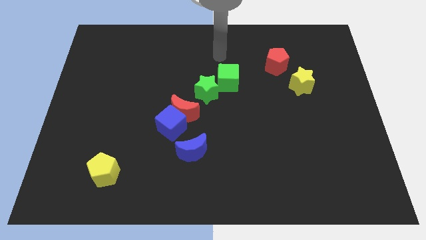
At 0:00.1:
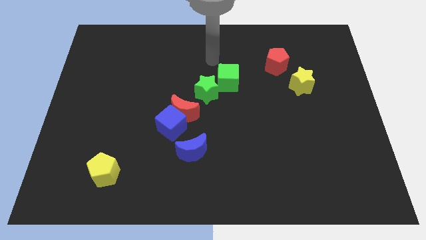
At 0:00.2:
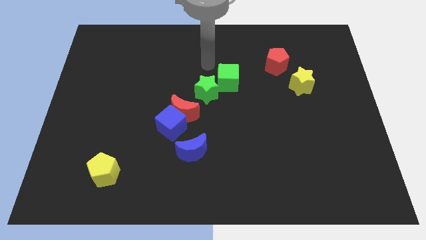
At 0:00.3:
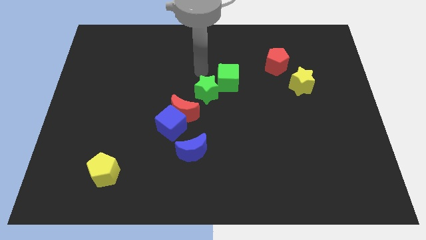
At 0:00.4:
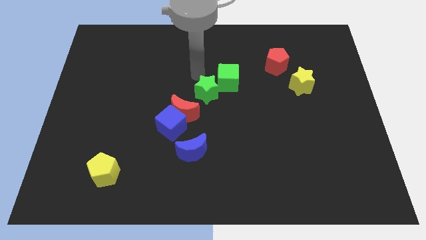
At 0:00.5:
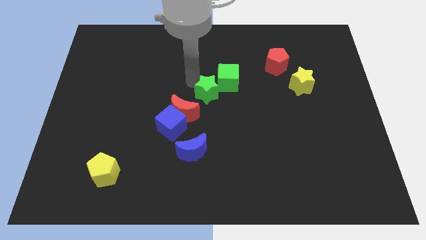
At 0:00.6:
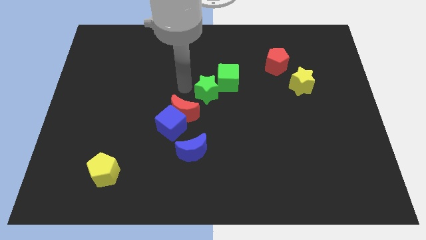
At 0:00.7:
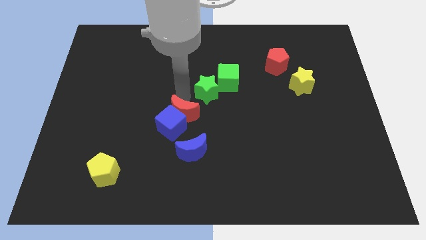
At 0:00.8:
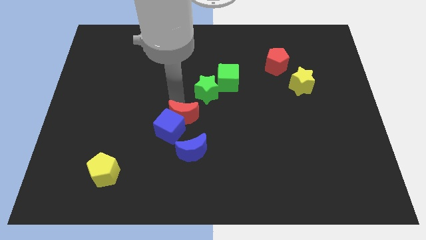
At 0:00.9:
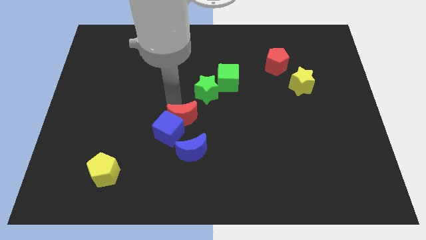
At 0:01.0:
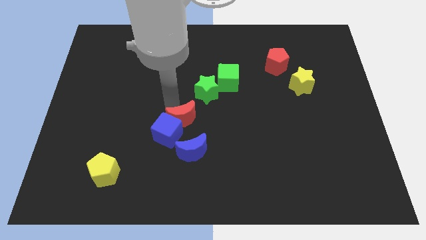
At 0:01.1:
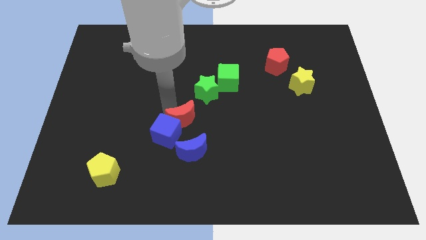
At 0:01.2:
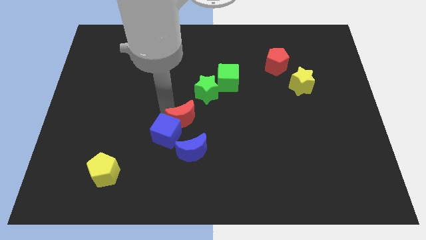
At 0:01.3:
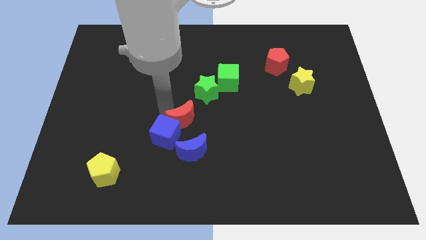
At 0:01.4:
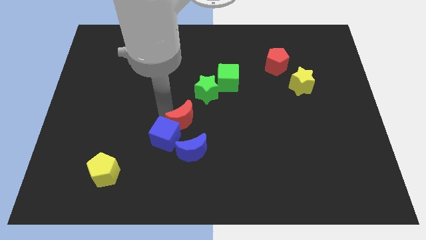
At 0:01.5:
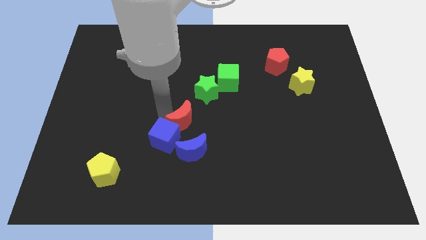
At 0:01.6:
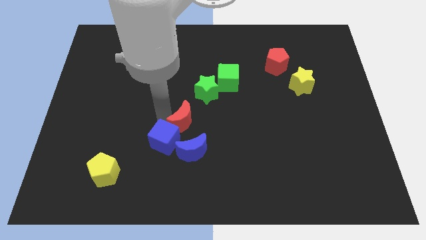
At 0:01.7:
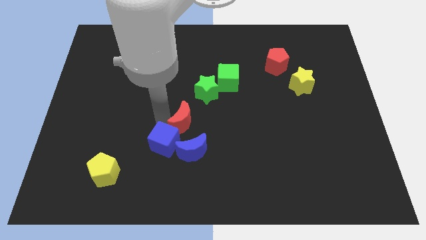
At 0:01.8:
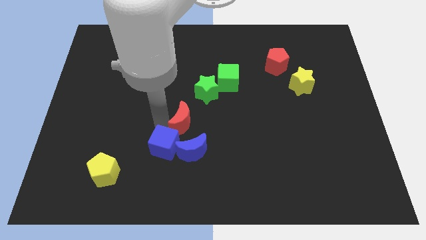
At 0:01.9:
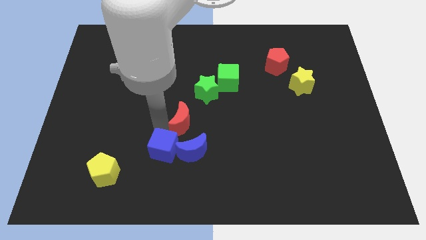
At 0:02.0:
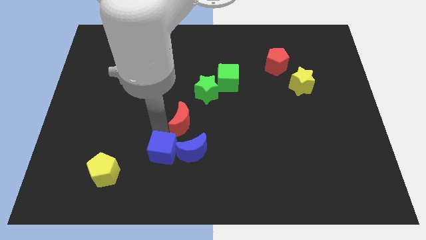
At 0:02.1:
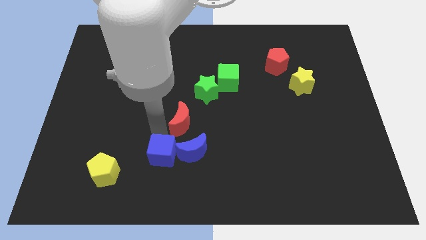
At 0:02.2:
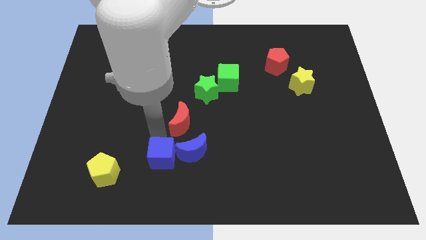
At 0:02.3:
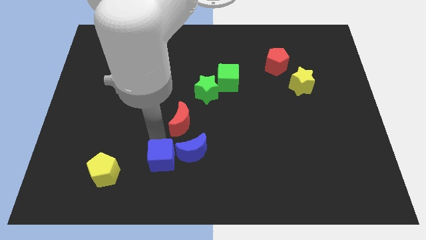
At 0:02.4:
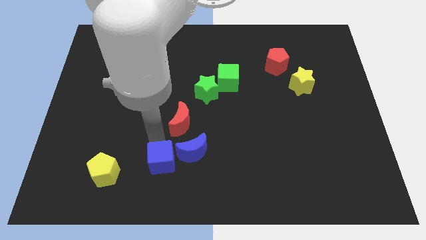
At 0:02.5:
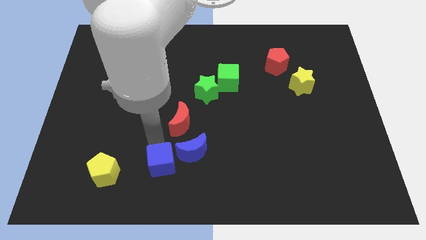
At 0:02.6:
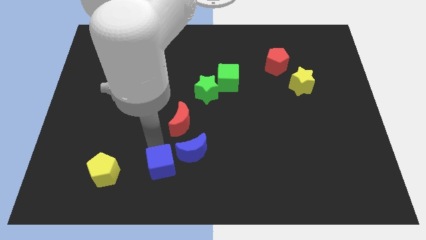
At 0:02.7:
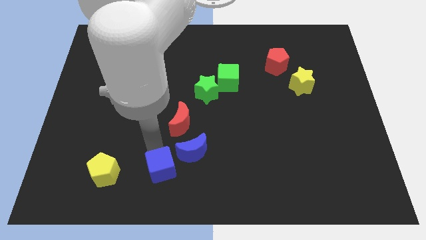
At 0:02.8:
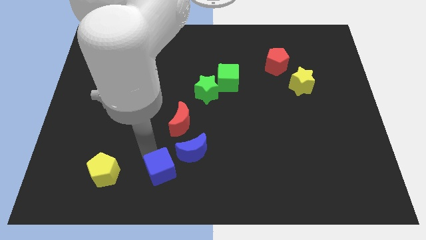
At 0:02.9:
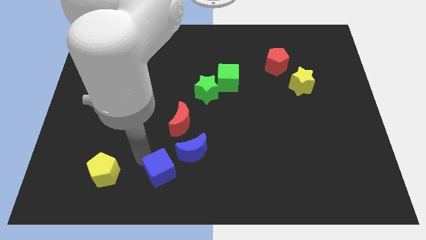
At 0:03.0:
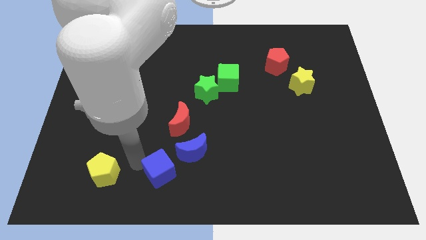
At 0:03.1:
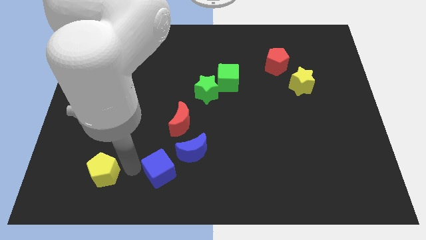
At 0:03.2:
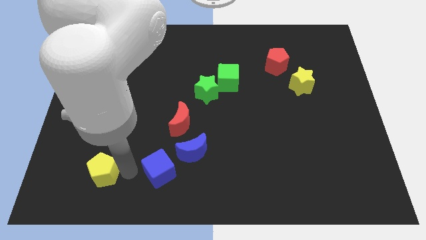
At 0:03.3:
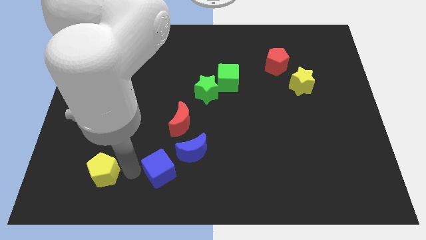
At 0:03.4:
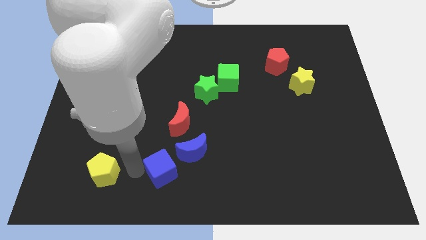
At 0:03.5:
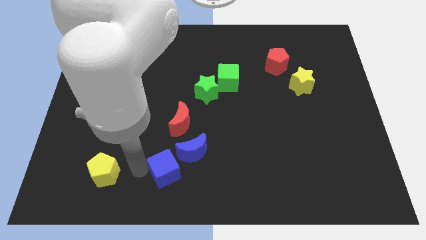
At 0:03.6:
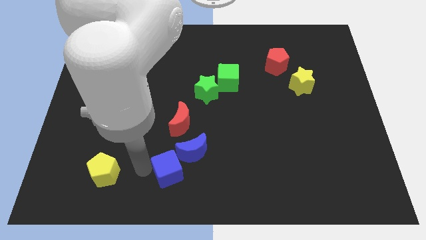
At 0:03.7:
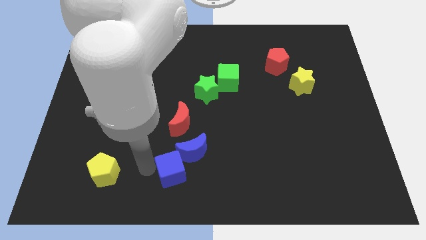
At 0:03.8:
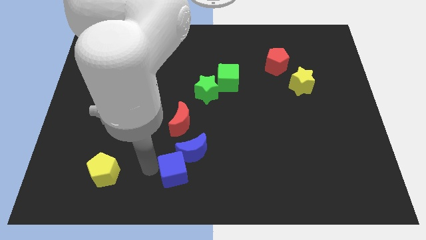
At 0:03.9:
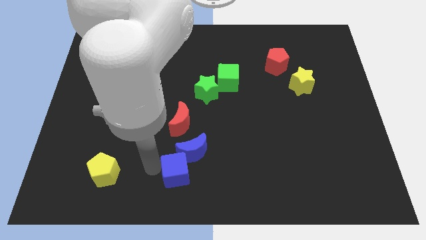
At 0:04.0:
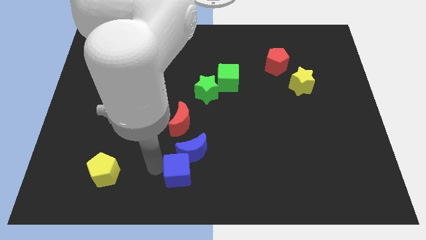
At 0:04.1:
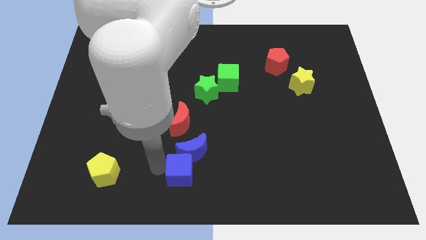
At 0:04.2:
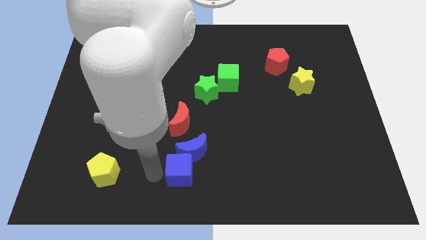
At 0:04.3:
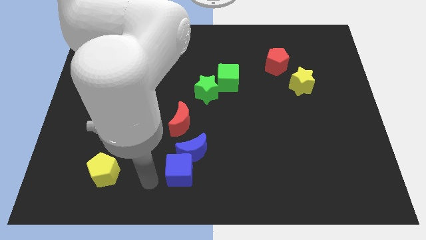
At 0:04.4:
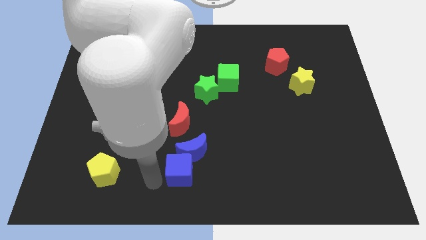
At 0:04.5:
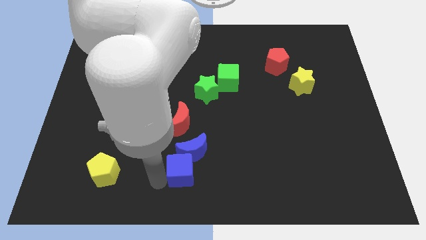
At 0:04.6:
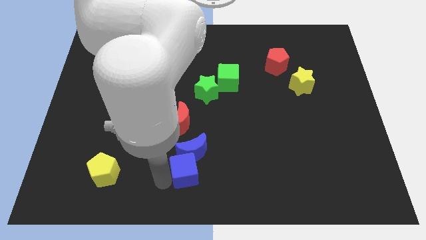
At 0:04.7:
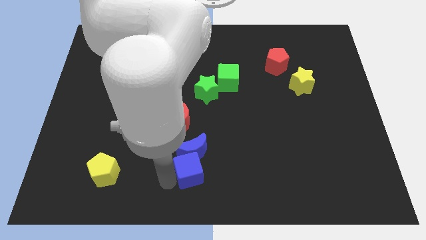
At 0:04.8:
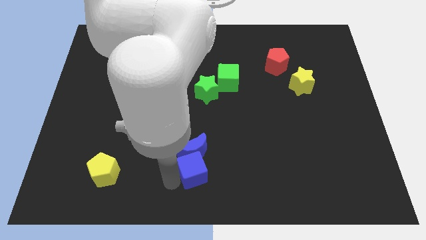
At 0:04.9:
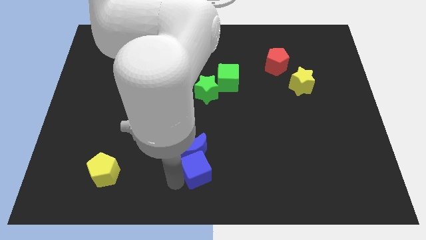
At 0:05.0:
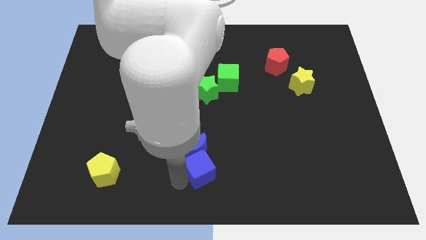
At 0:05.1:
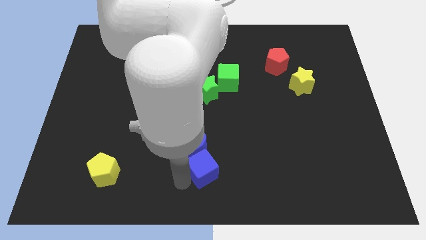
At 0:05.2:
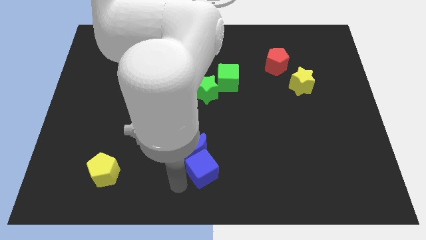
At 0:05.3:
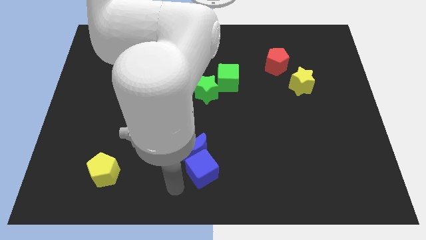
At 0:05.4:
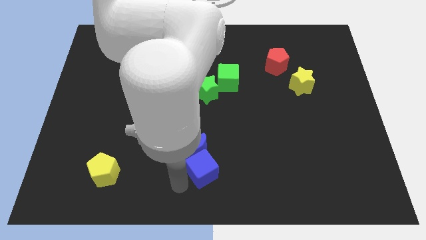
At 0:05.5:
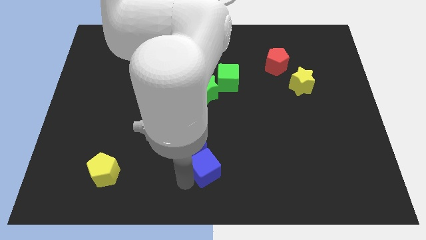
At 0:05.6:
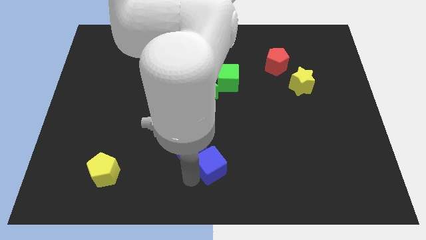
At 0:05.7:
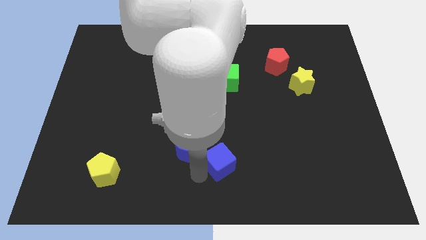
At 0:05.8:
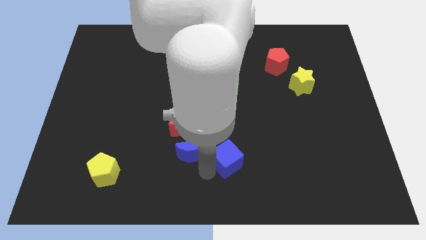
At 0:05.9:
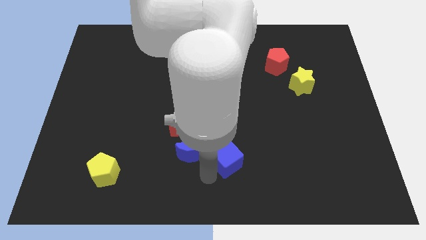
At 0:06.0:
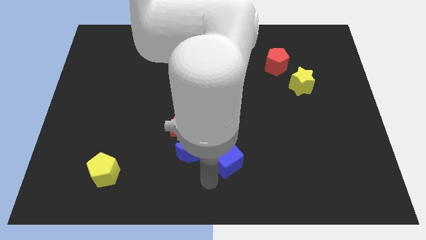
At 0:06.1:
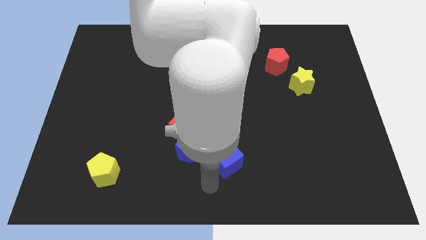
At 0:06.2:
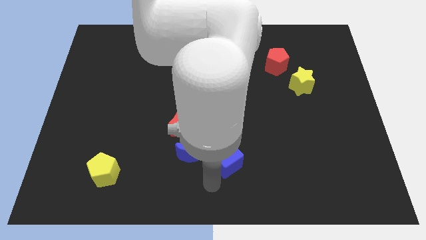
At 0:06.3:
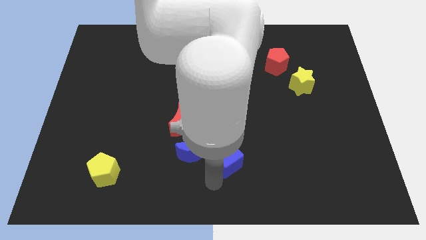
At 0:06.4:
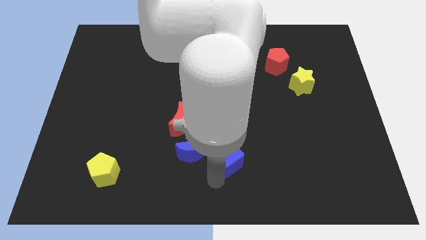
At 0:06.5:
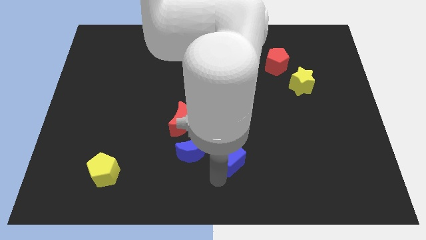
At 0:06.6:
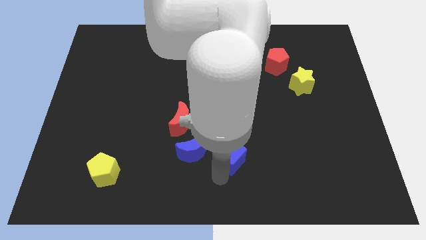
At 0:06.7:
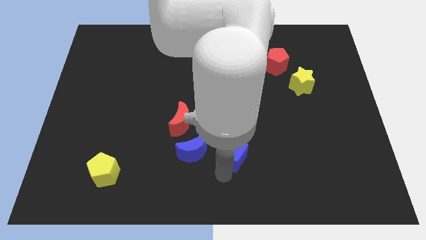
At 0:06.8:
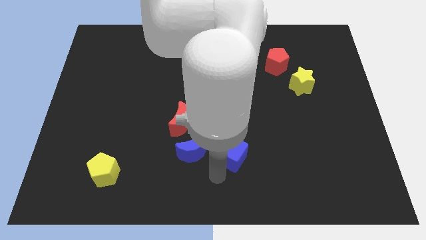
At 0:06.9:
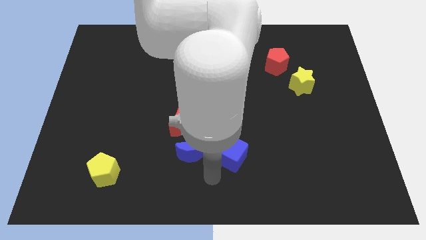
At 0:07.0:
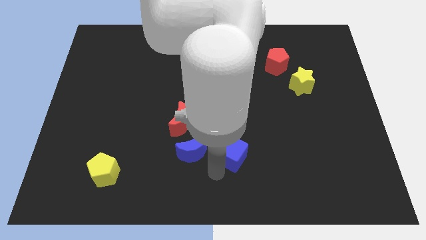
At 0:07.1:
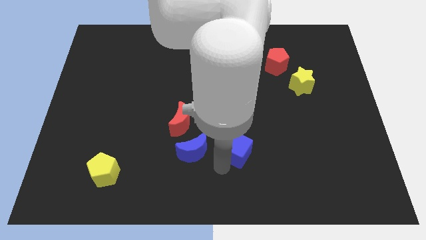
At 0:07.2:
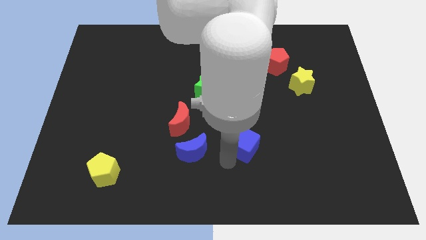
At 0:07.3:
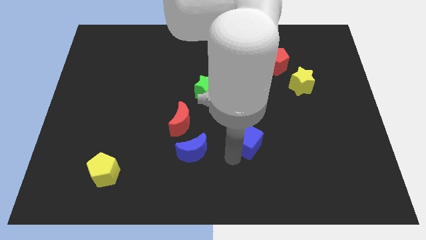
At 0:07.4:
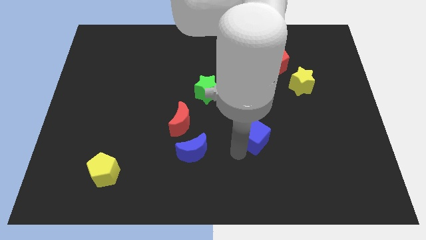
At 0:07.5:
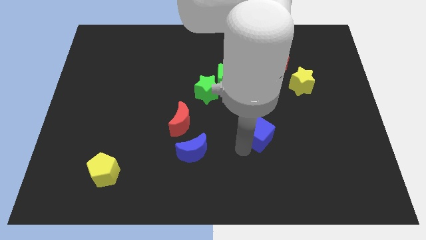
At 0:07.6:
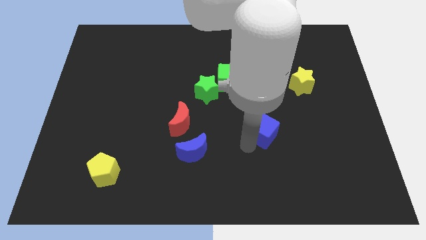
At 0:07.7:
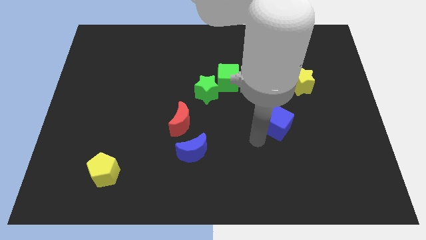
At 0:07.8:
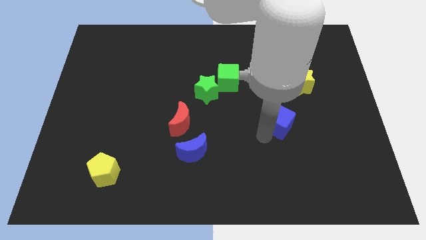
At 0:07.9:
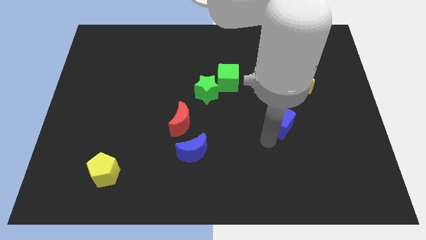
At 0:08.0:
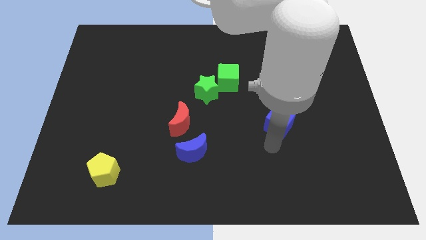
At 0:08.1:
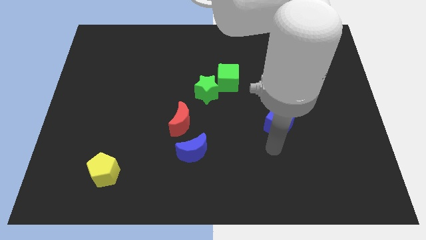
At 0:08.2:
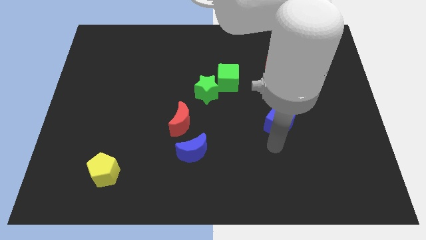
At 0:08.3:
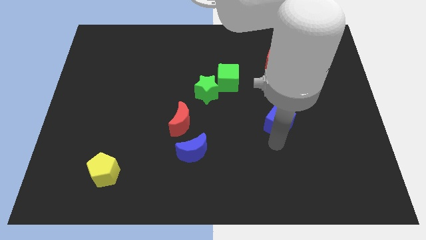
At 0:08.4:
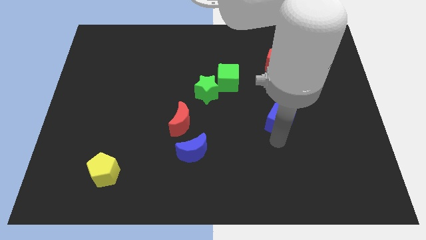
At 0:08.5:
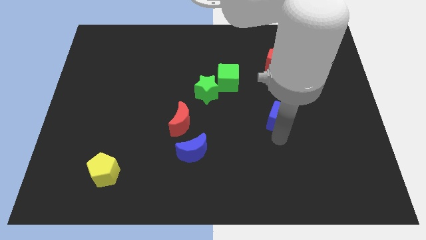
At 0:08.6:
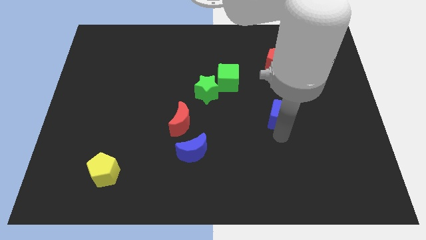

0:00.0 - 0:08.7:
move the blue cube to the bottom left side of the yellow star
